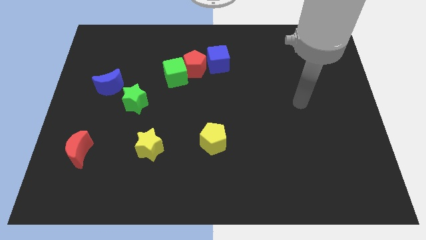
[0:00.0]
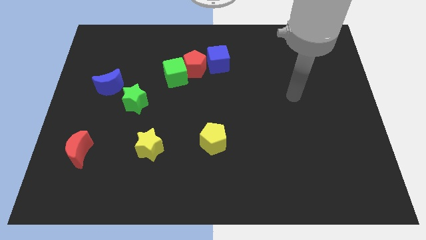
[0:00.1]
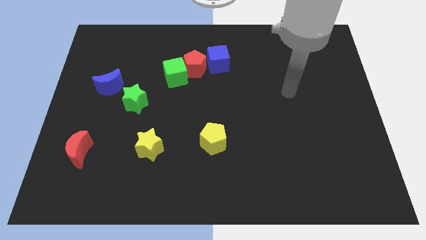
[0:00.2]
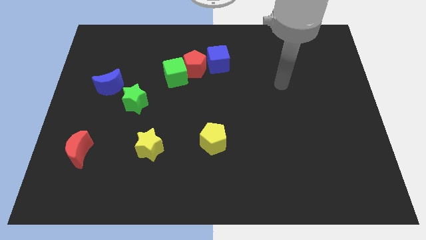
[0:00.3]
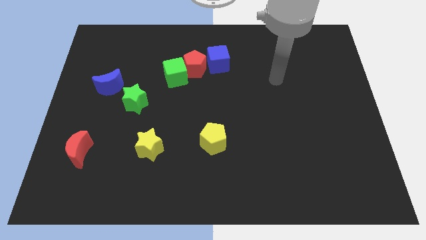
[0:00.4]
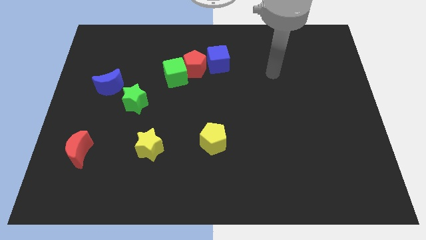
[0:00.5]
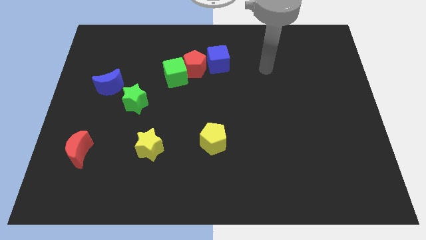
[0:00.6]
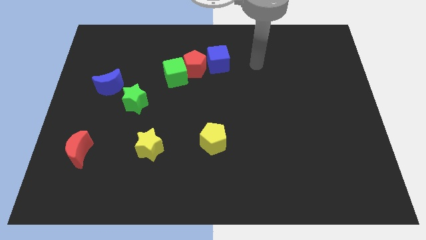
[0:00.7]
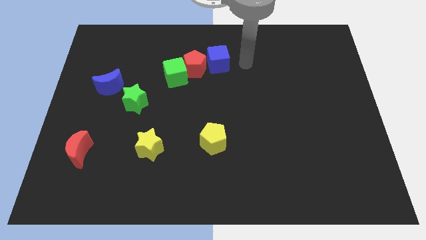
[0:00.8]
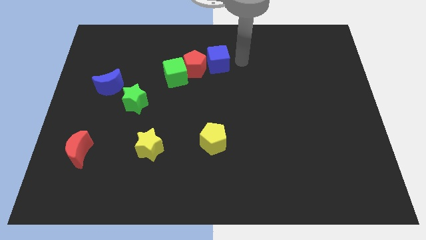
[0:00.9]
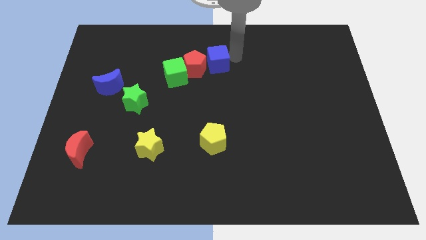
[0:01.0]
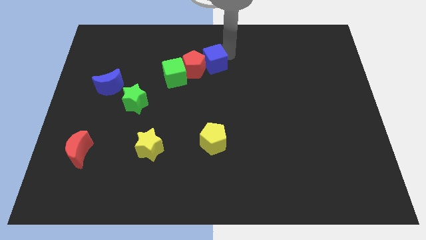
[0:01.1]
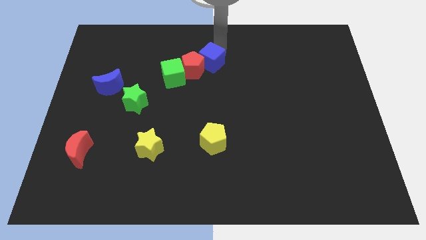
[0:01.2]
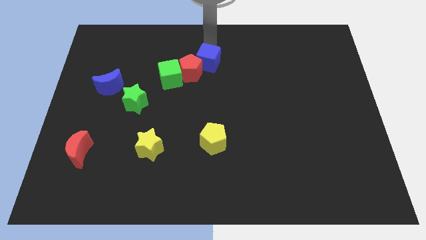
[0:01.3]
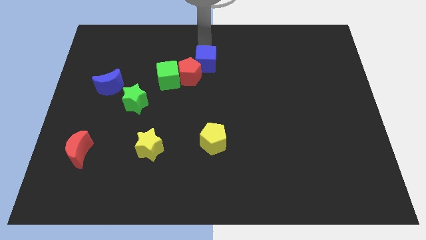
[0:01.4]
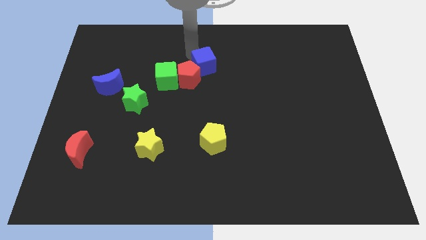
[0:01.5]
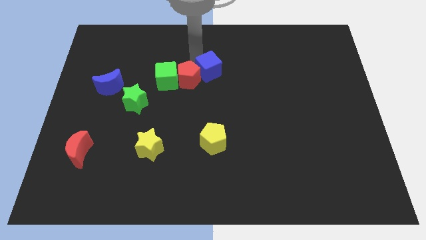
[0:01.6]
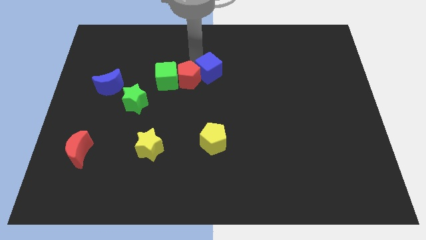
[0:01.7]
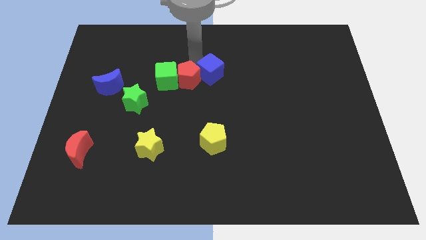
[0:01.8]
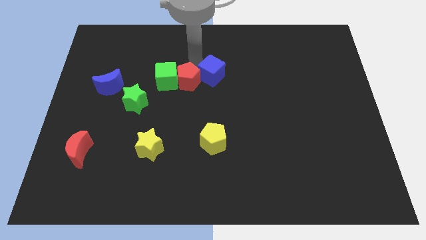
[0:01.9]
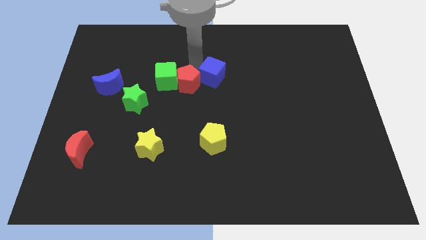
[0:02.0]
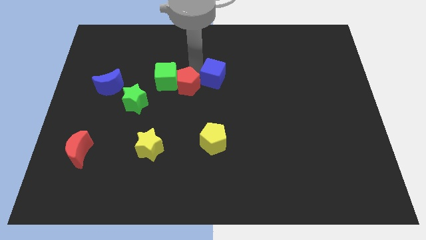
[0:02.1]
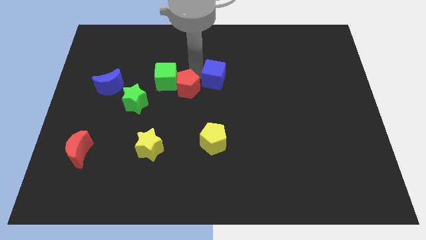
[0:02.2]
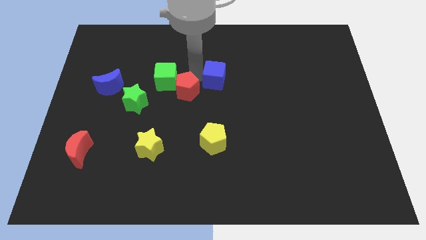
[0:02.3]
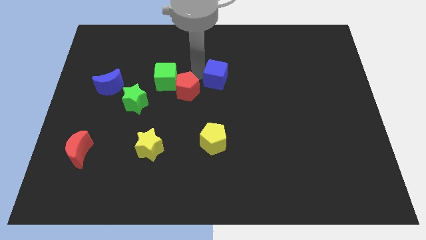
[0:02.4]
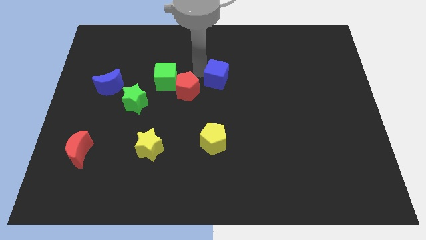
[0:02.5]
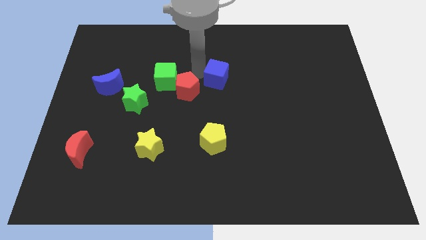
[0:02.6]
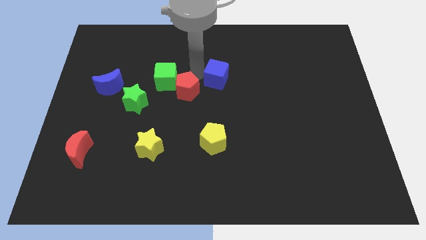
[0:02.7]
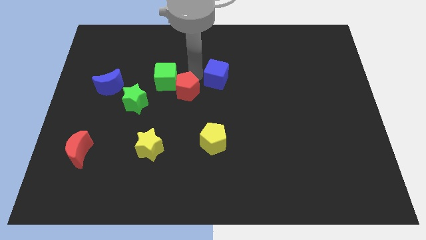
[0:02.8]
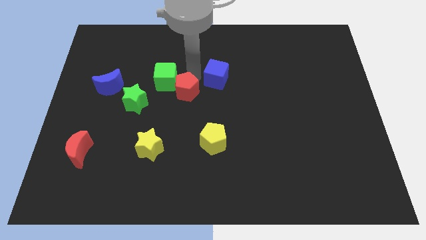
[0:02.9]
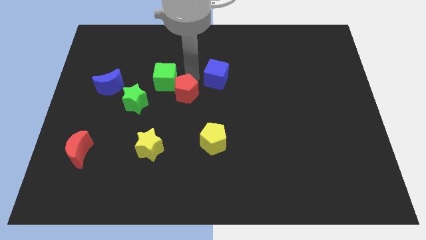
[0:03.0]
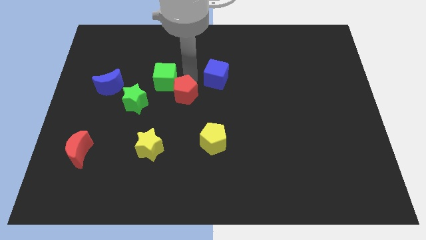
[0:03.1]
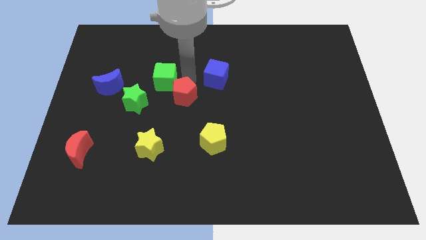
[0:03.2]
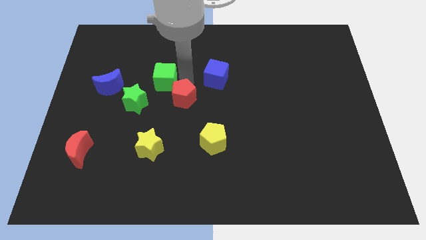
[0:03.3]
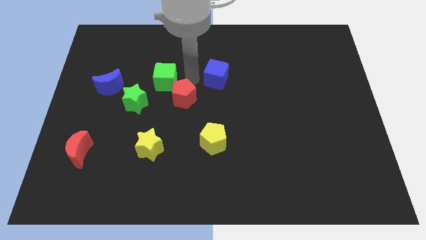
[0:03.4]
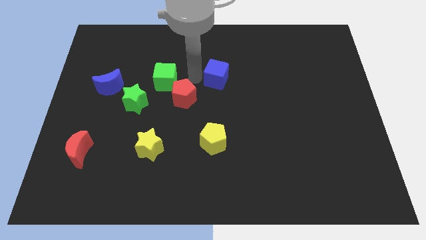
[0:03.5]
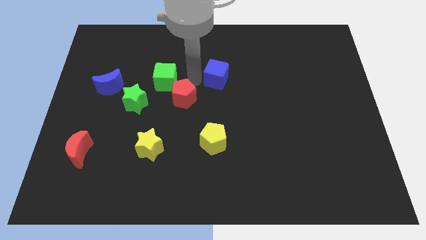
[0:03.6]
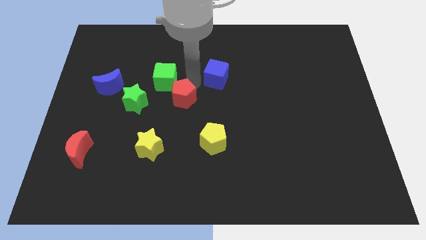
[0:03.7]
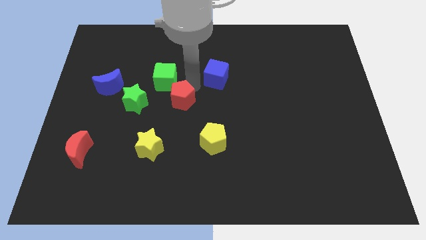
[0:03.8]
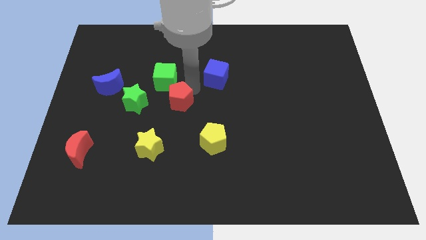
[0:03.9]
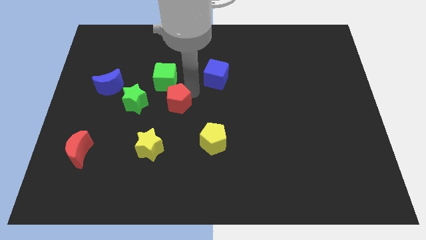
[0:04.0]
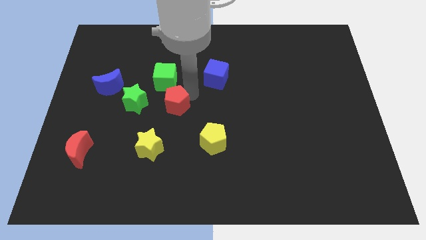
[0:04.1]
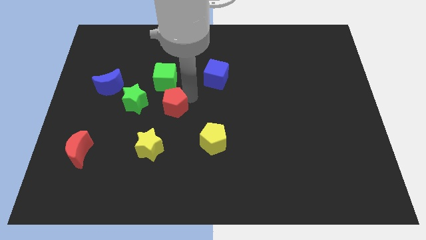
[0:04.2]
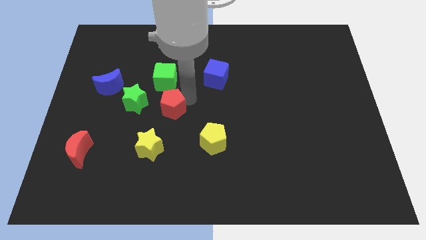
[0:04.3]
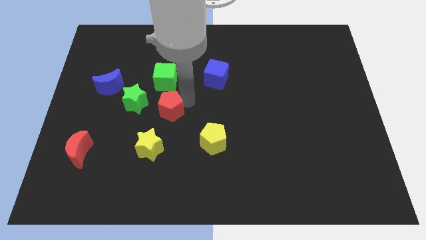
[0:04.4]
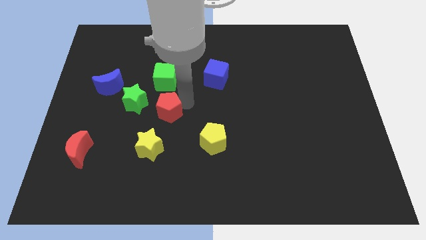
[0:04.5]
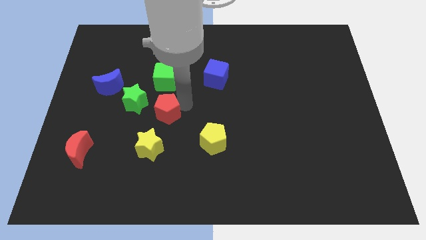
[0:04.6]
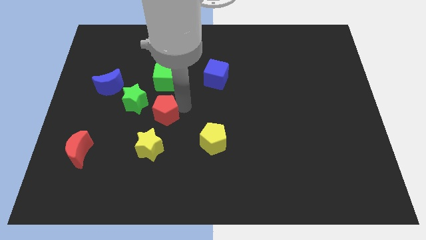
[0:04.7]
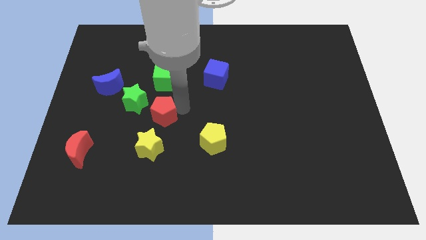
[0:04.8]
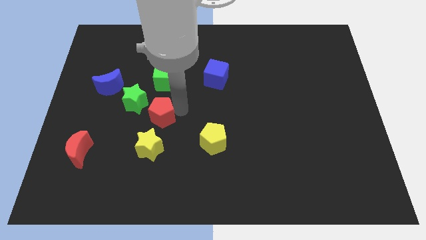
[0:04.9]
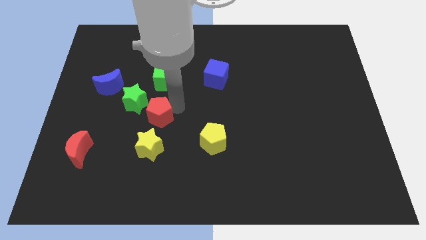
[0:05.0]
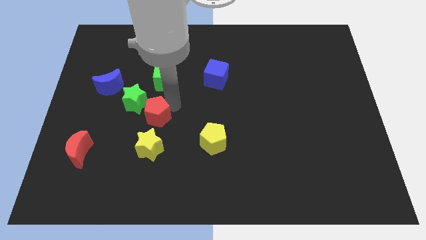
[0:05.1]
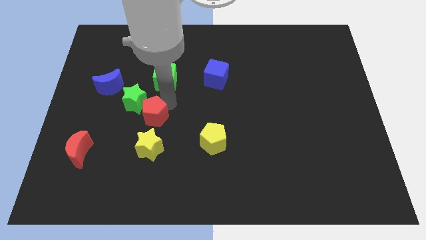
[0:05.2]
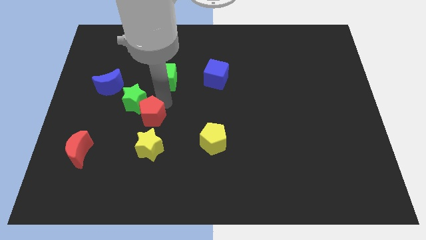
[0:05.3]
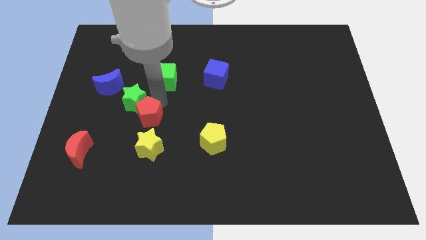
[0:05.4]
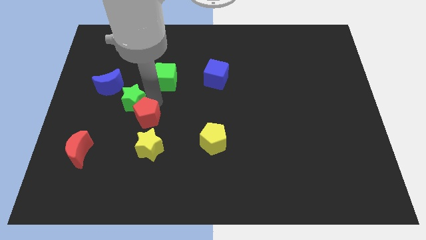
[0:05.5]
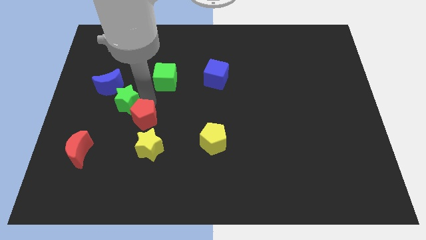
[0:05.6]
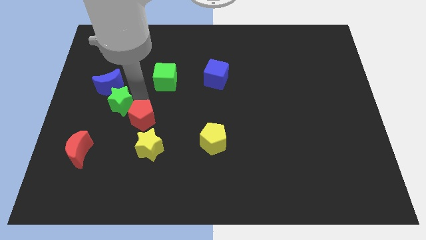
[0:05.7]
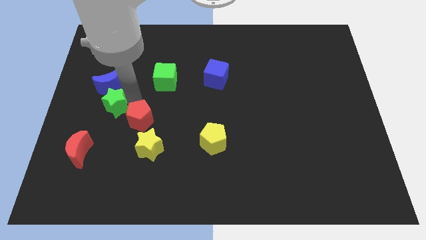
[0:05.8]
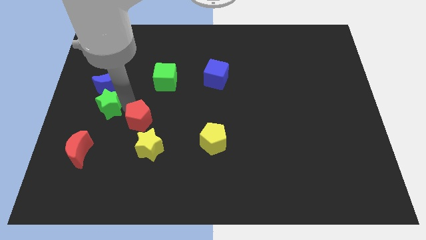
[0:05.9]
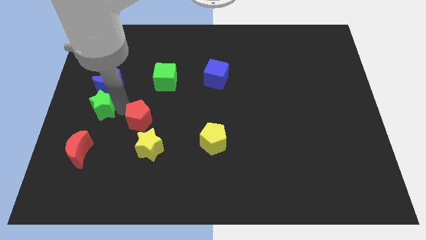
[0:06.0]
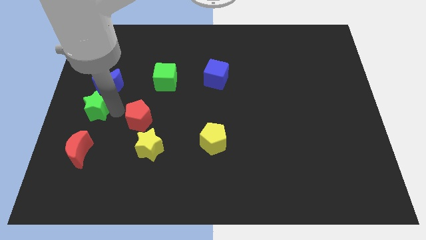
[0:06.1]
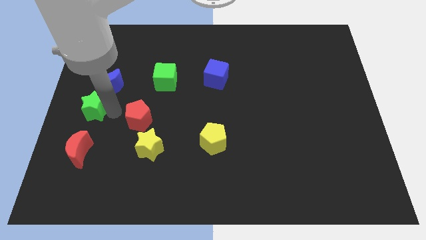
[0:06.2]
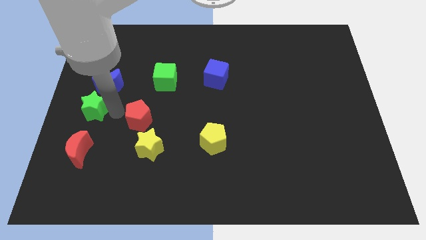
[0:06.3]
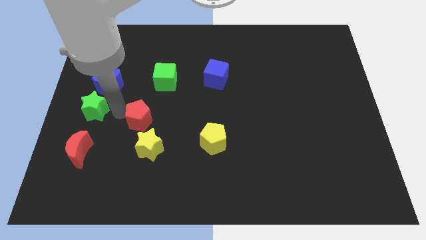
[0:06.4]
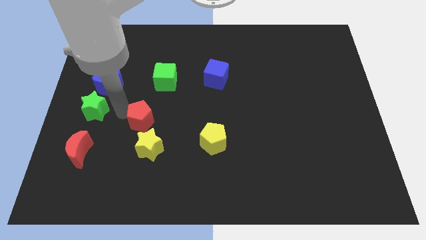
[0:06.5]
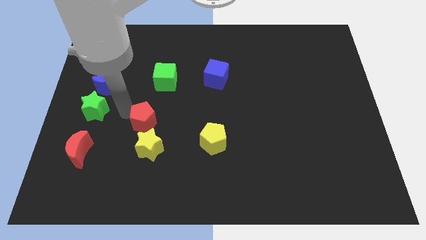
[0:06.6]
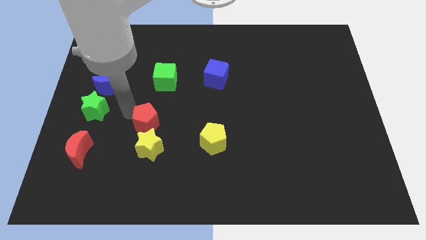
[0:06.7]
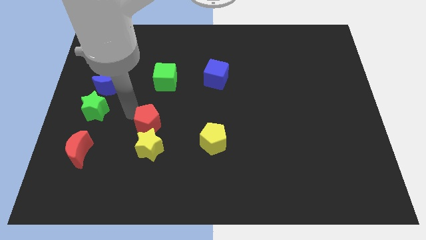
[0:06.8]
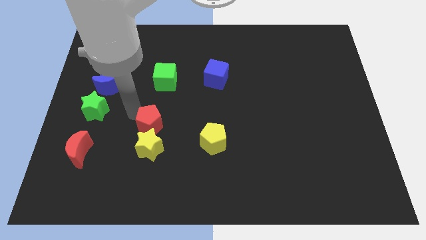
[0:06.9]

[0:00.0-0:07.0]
slide the red pentagon close to the yellow star

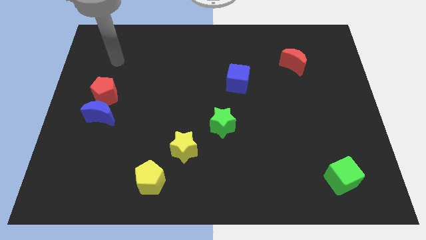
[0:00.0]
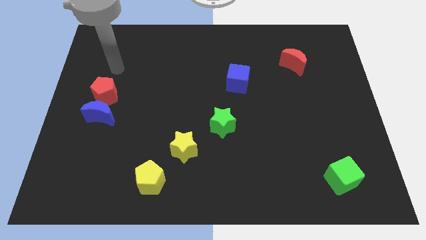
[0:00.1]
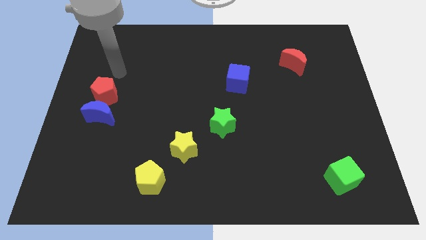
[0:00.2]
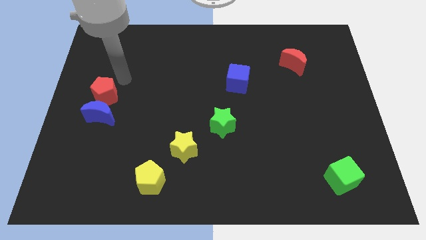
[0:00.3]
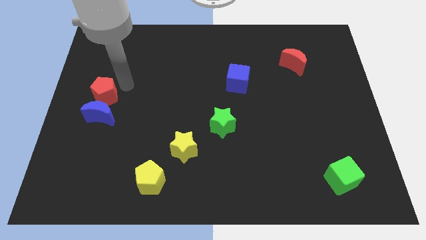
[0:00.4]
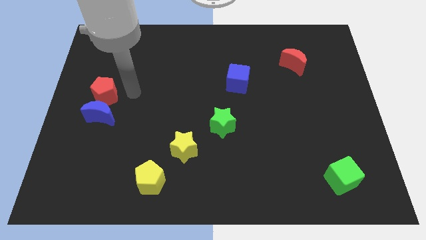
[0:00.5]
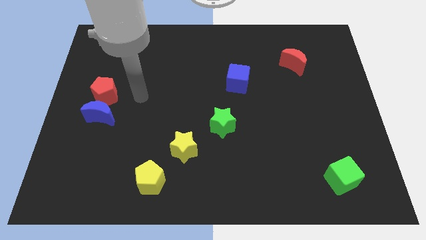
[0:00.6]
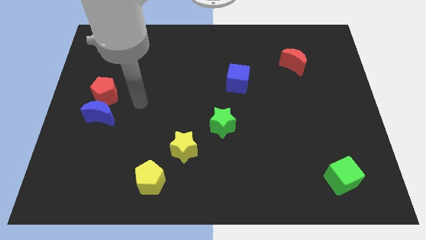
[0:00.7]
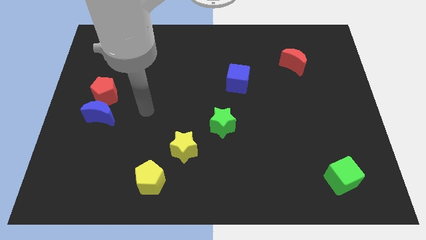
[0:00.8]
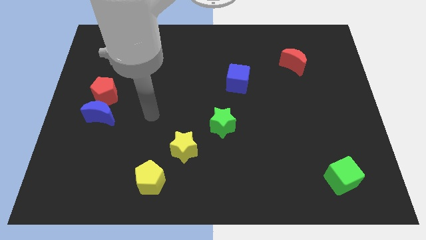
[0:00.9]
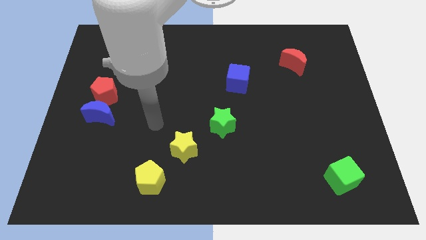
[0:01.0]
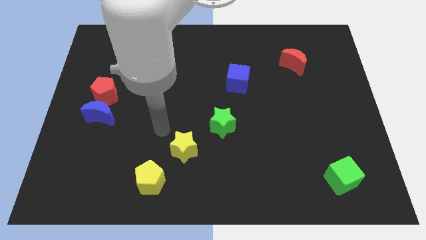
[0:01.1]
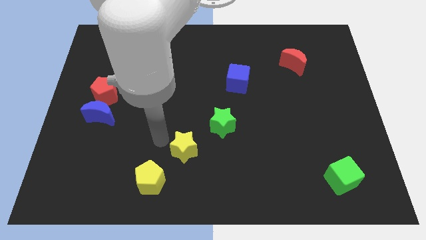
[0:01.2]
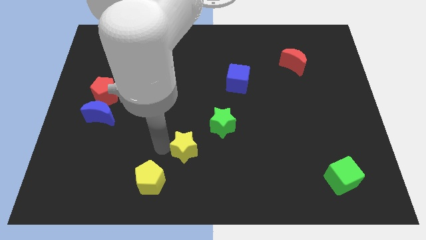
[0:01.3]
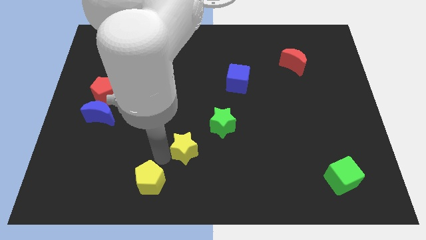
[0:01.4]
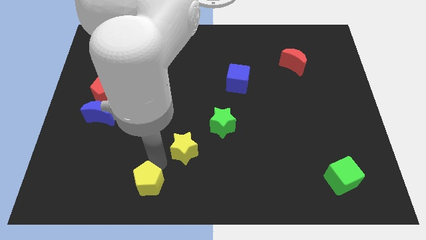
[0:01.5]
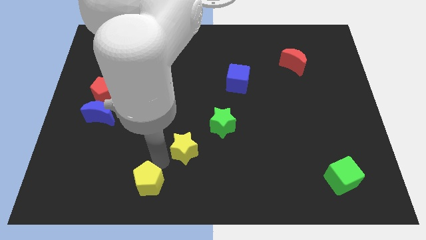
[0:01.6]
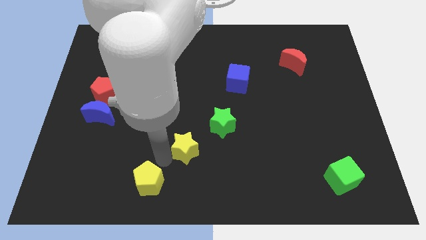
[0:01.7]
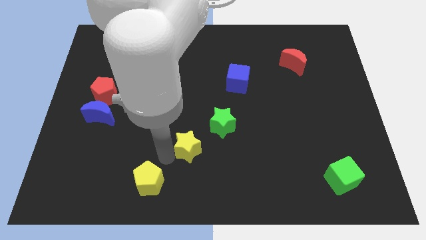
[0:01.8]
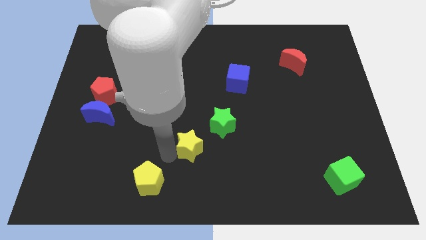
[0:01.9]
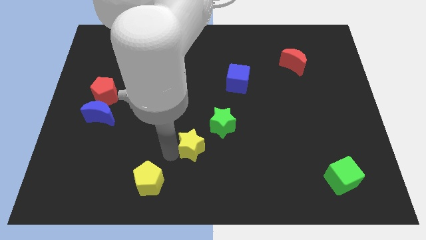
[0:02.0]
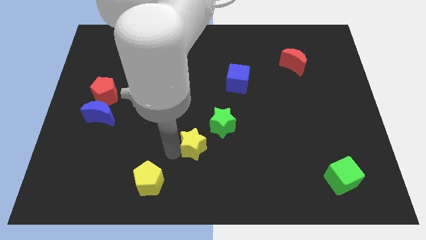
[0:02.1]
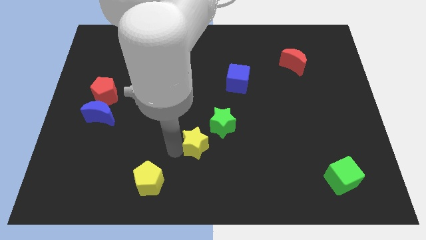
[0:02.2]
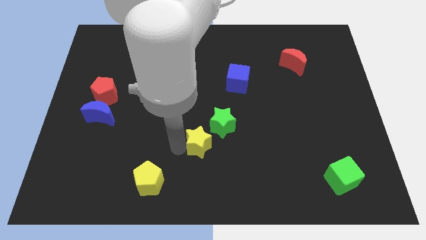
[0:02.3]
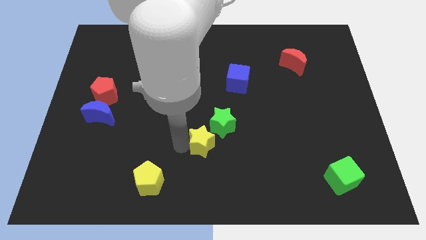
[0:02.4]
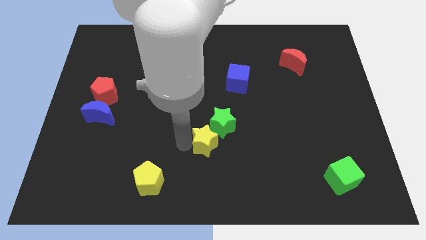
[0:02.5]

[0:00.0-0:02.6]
push the yellow star close to the green star
